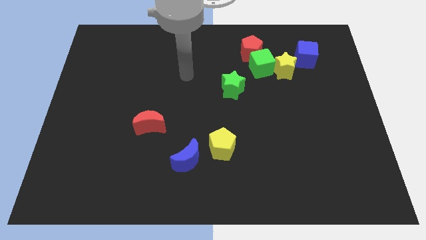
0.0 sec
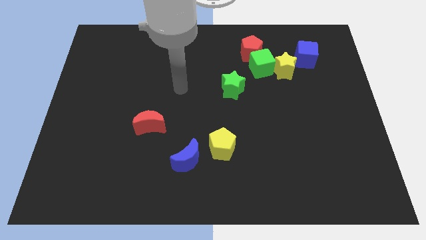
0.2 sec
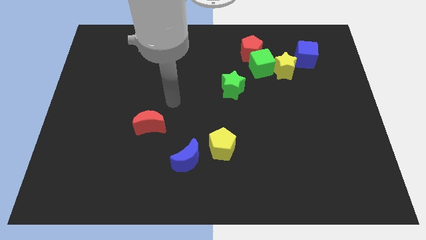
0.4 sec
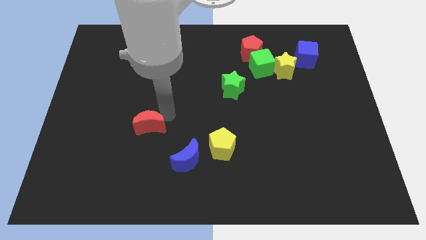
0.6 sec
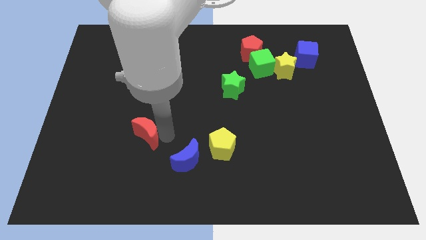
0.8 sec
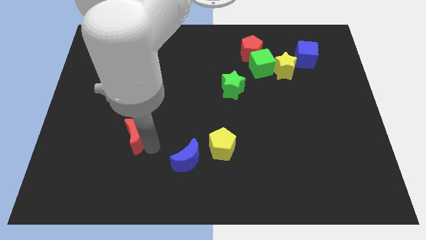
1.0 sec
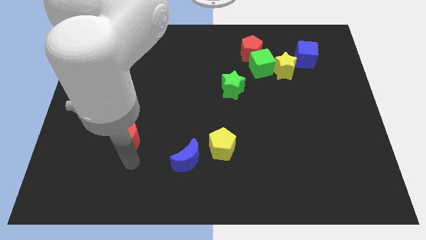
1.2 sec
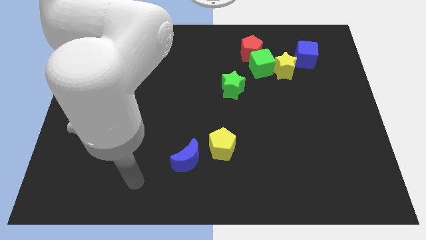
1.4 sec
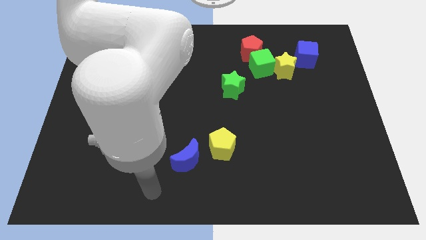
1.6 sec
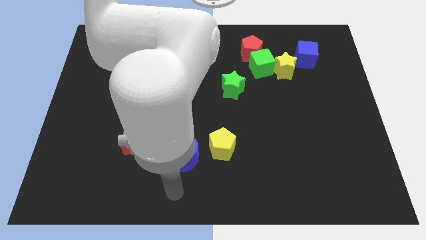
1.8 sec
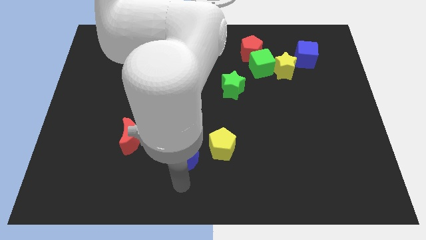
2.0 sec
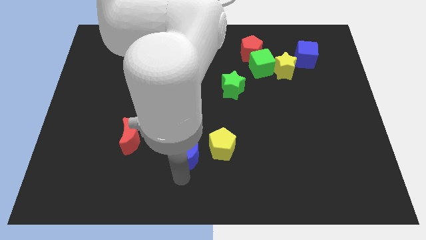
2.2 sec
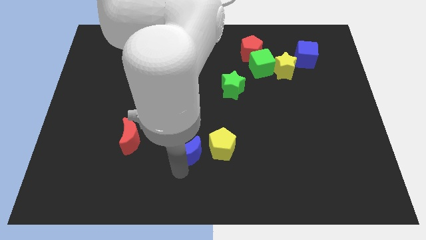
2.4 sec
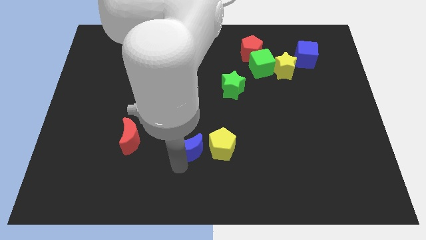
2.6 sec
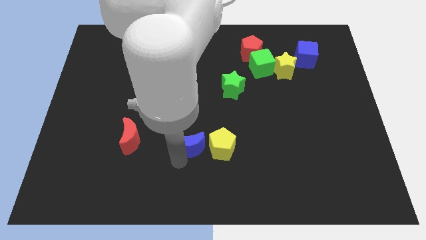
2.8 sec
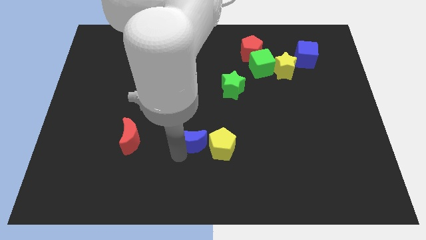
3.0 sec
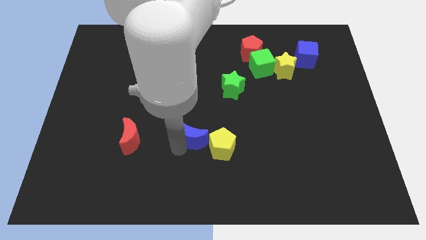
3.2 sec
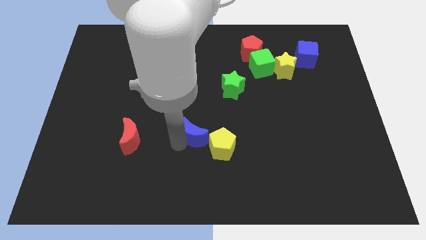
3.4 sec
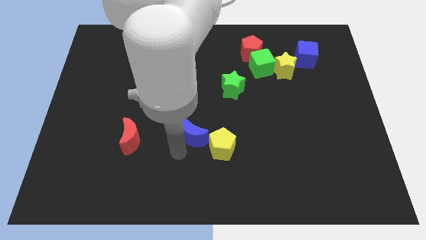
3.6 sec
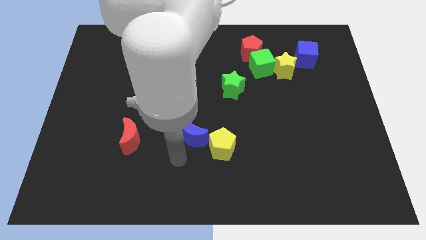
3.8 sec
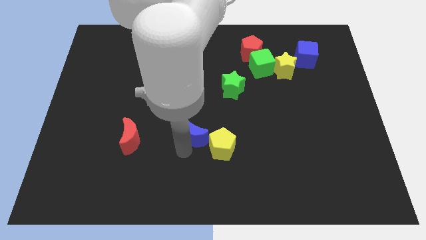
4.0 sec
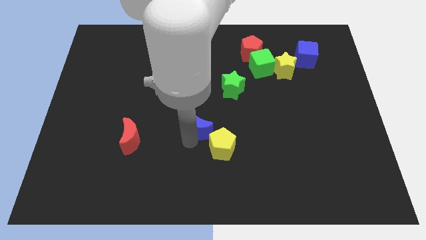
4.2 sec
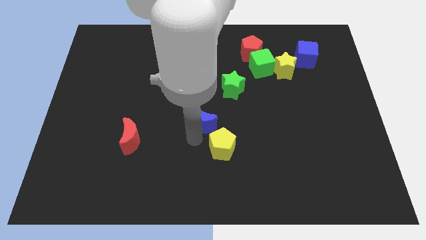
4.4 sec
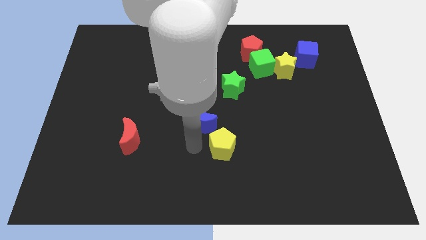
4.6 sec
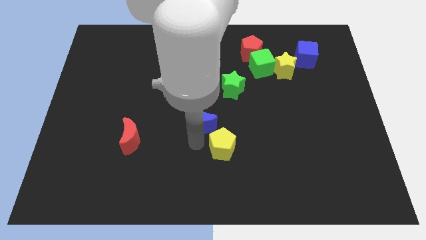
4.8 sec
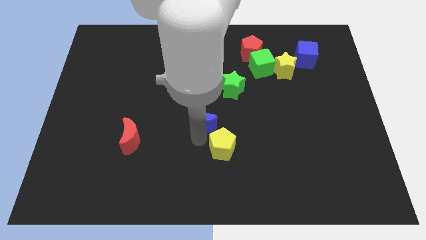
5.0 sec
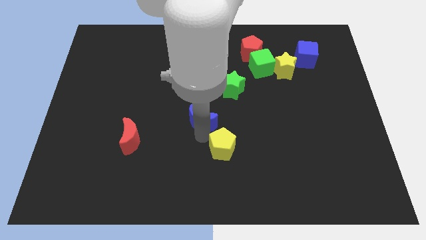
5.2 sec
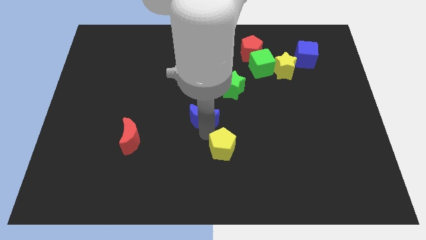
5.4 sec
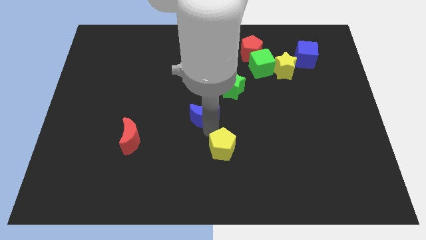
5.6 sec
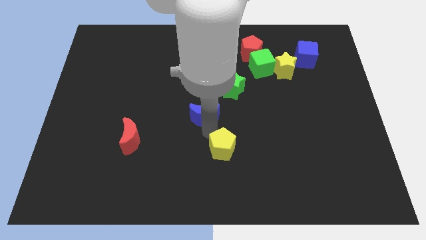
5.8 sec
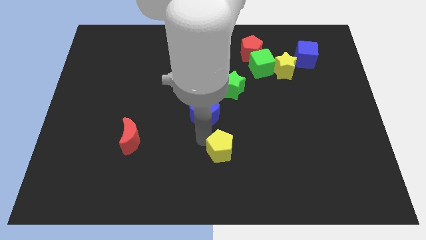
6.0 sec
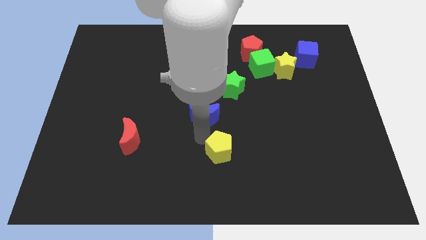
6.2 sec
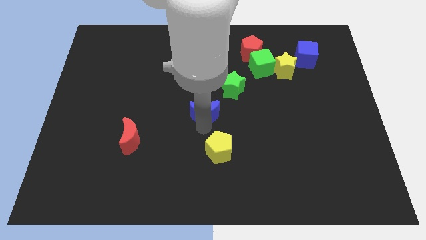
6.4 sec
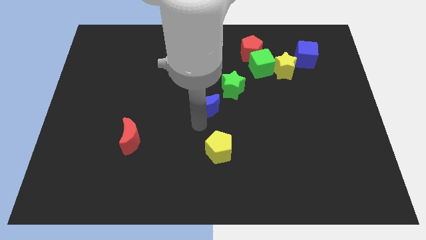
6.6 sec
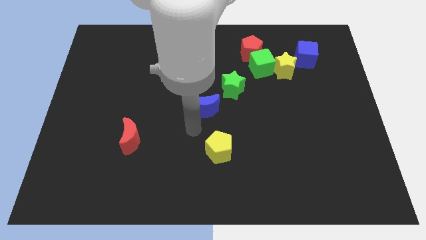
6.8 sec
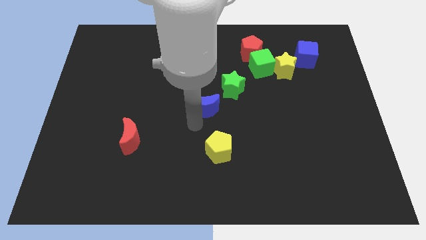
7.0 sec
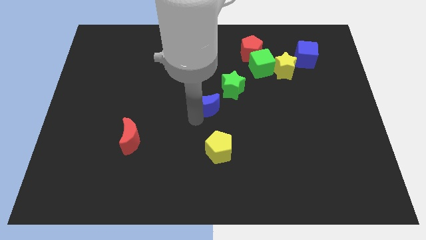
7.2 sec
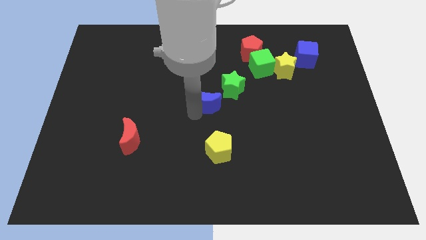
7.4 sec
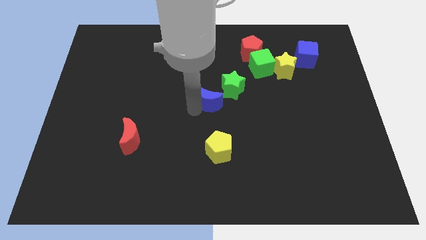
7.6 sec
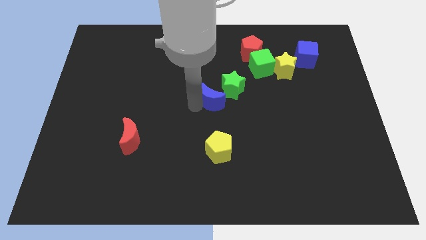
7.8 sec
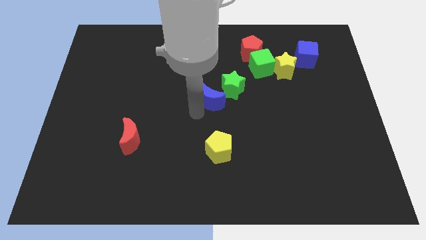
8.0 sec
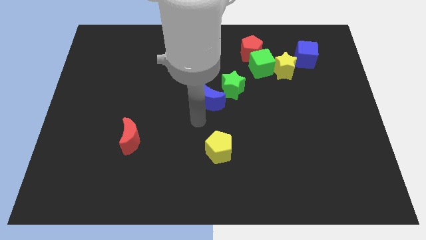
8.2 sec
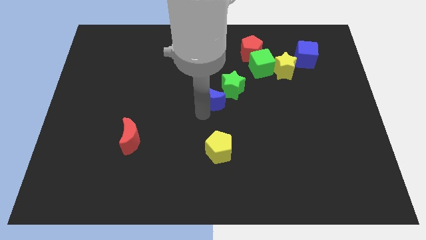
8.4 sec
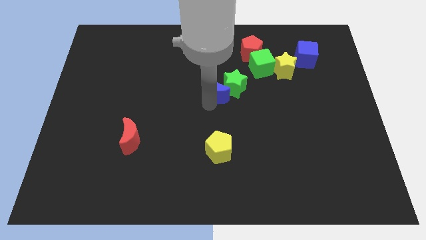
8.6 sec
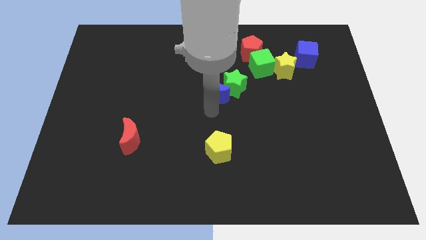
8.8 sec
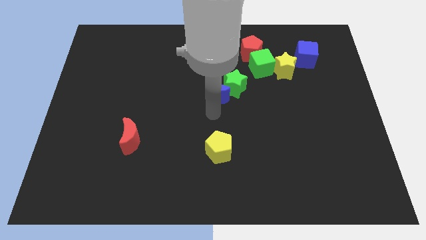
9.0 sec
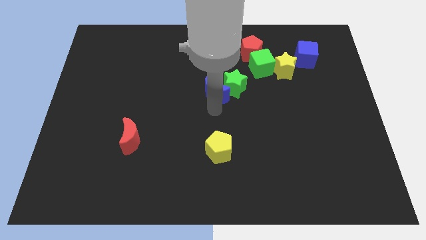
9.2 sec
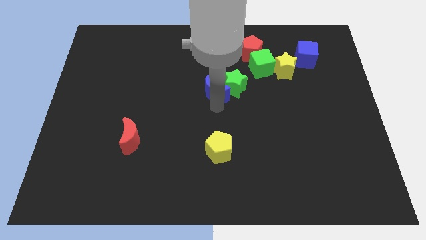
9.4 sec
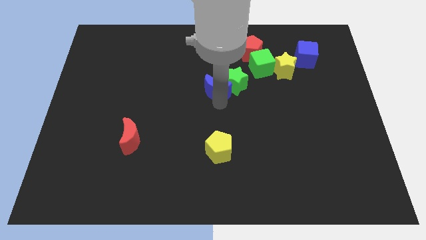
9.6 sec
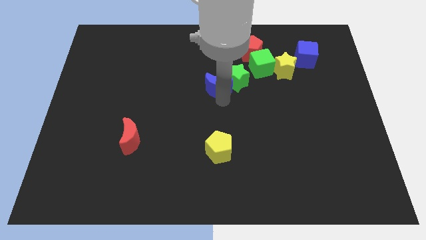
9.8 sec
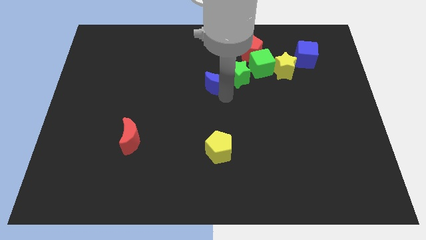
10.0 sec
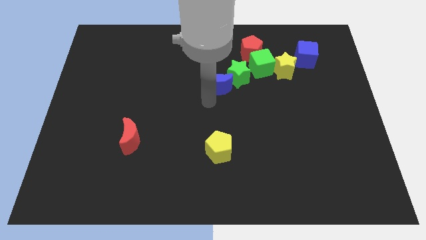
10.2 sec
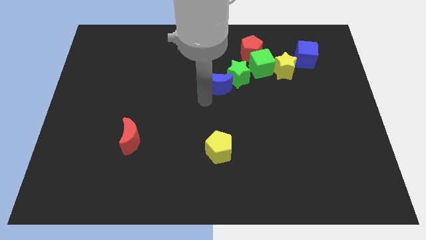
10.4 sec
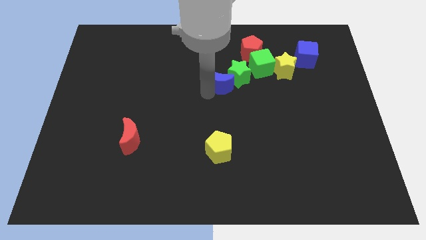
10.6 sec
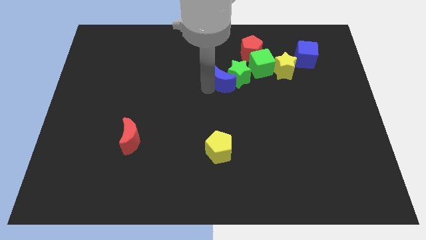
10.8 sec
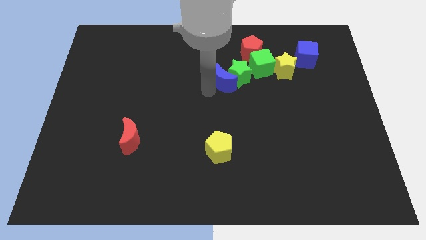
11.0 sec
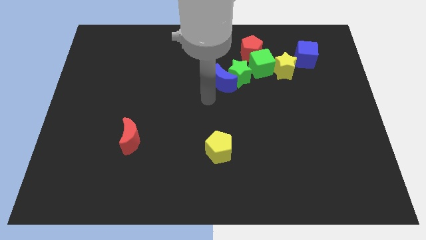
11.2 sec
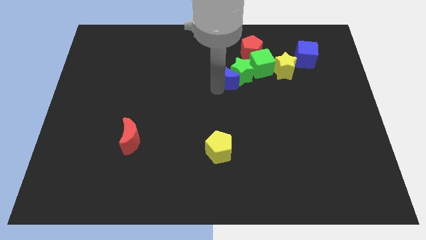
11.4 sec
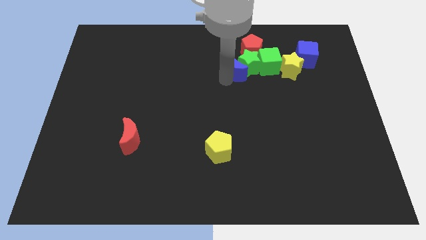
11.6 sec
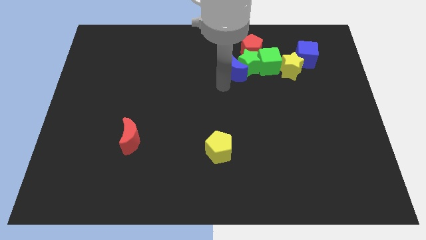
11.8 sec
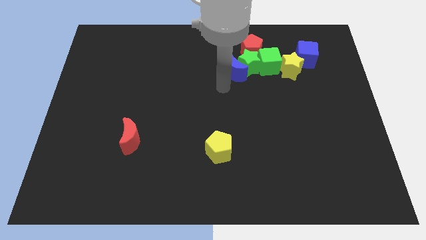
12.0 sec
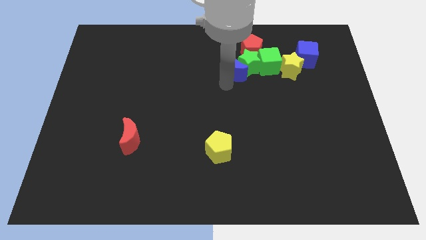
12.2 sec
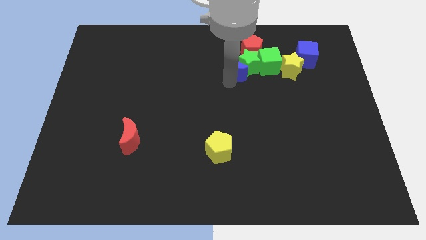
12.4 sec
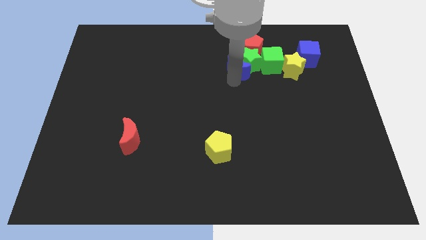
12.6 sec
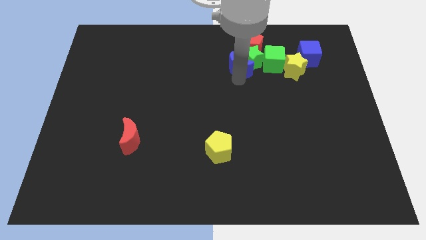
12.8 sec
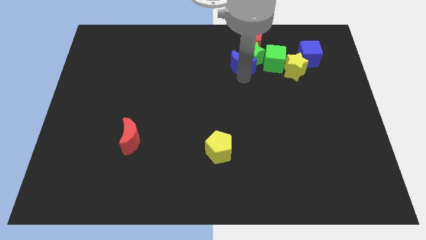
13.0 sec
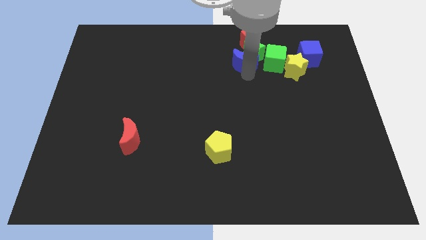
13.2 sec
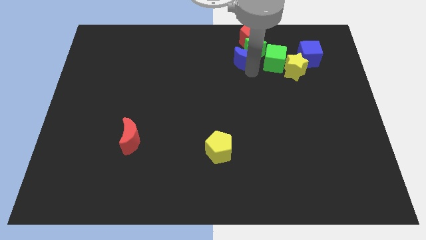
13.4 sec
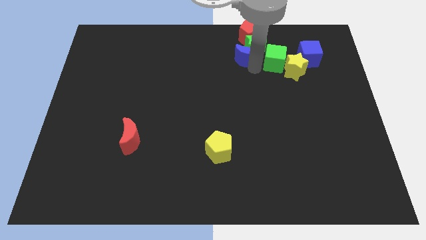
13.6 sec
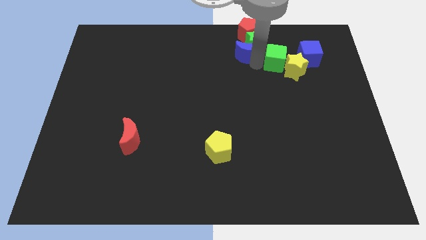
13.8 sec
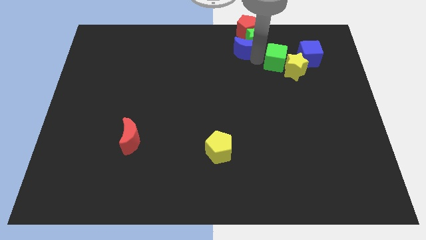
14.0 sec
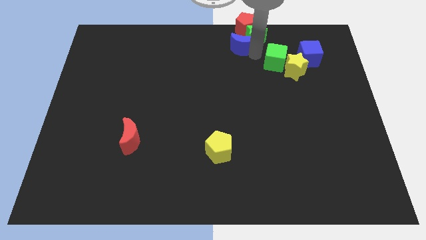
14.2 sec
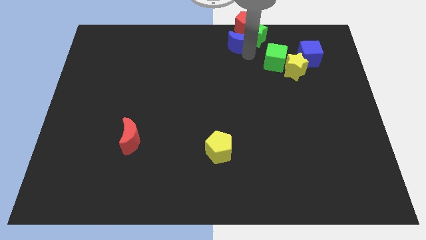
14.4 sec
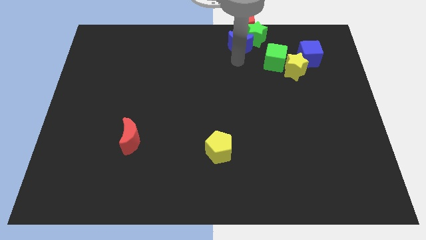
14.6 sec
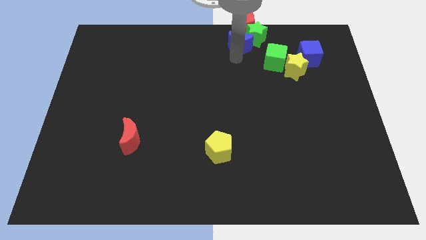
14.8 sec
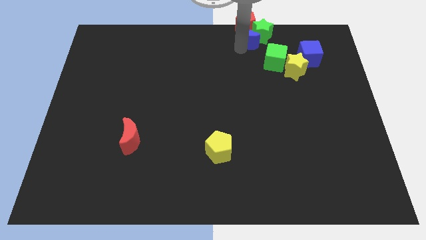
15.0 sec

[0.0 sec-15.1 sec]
push the blue moon close to the red pentagon
